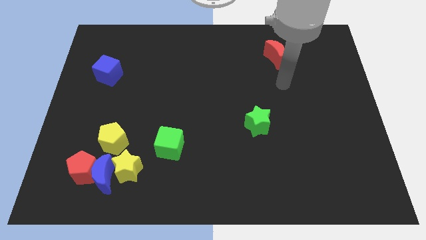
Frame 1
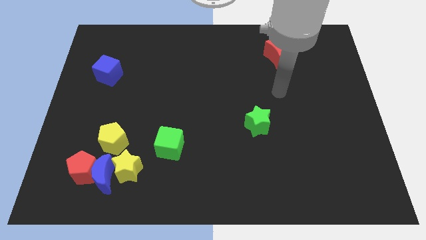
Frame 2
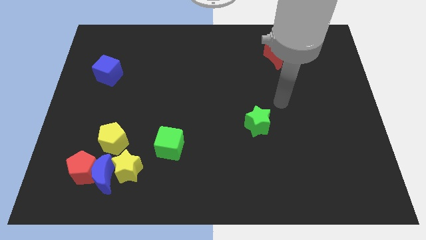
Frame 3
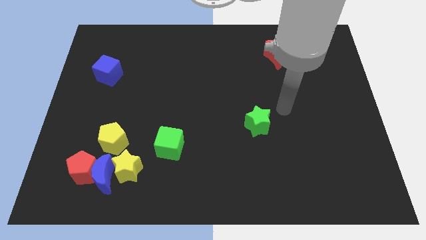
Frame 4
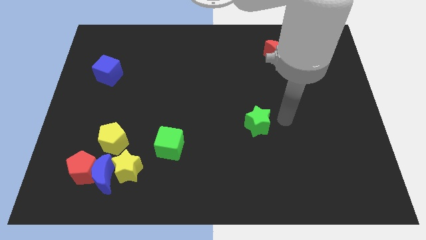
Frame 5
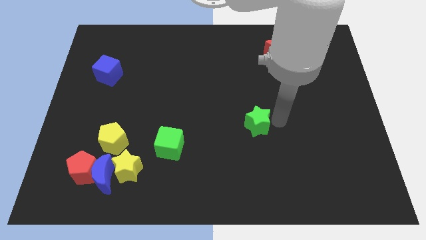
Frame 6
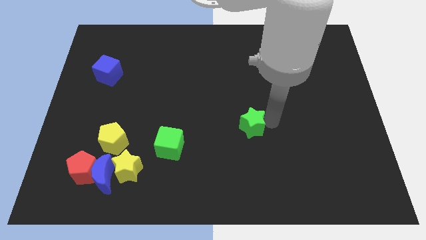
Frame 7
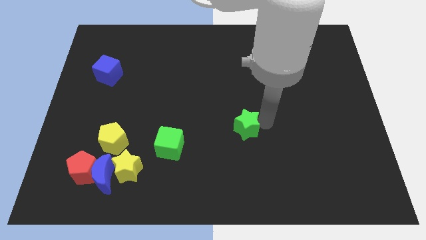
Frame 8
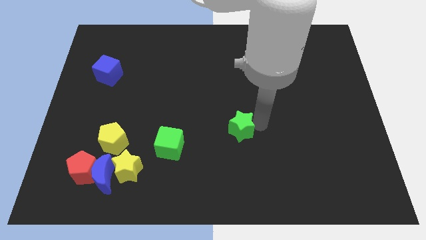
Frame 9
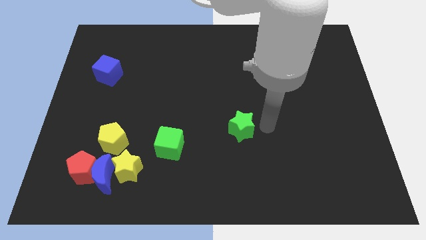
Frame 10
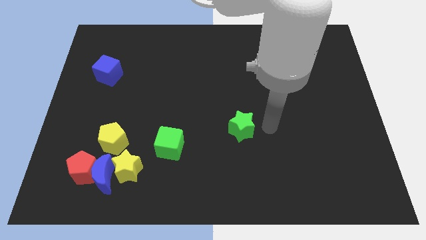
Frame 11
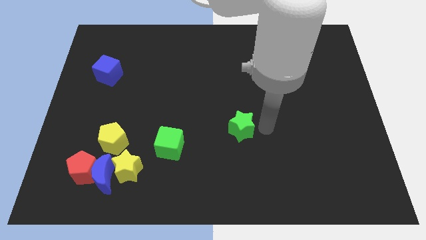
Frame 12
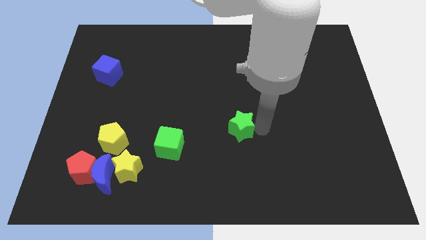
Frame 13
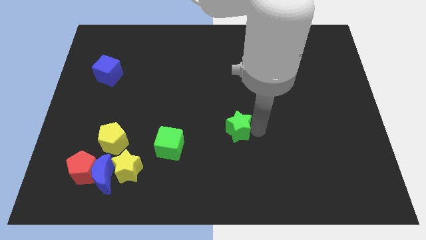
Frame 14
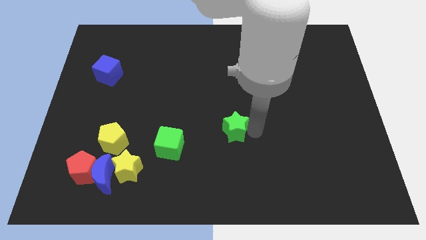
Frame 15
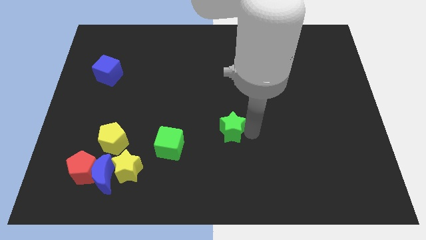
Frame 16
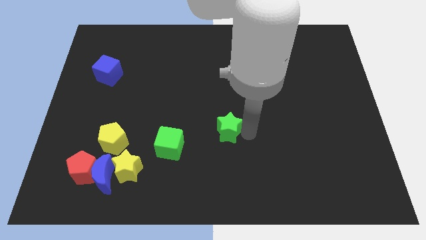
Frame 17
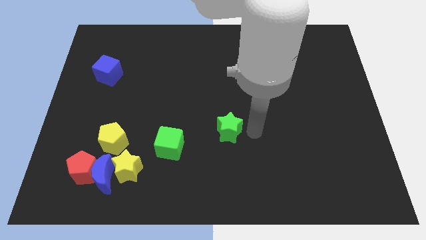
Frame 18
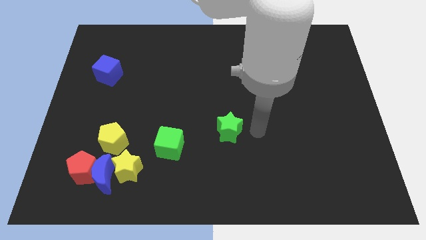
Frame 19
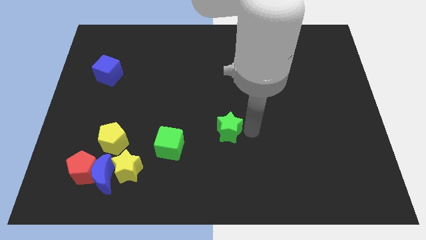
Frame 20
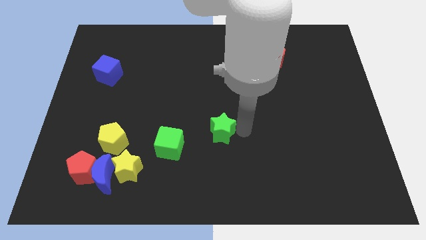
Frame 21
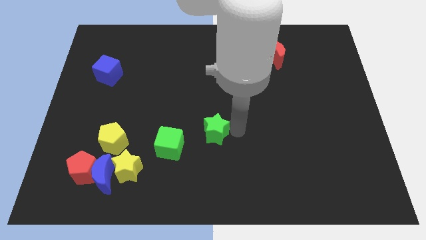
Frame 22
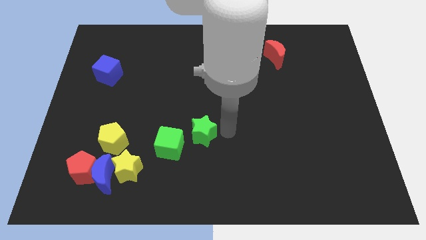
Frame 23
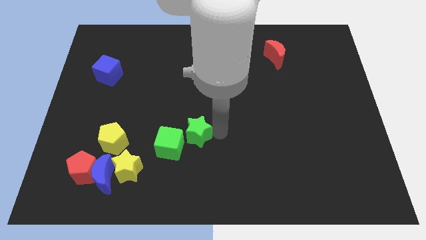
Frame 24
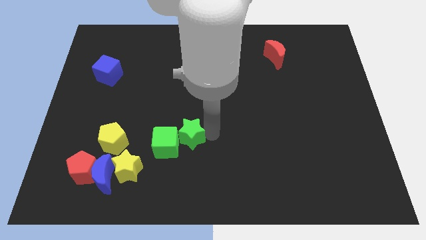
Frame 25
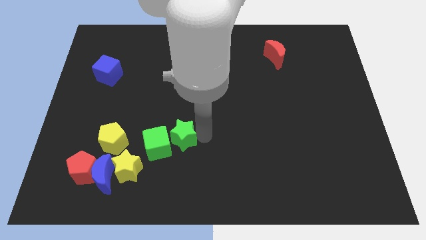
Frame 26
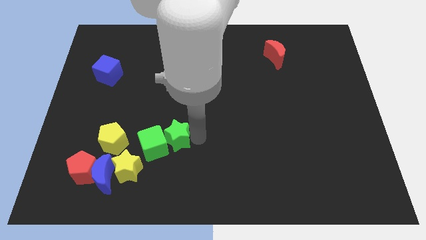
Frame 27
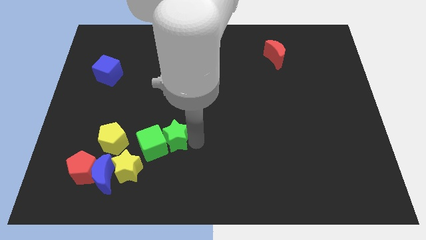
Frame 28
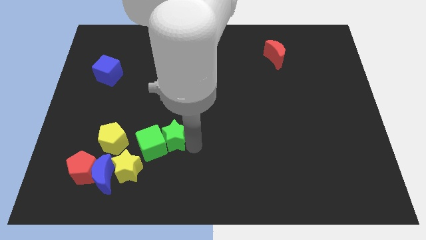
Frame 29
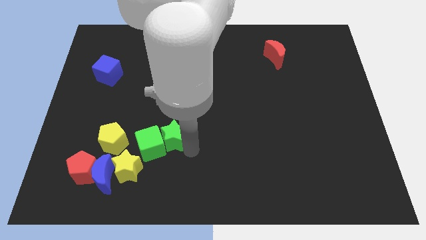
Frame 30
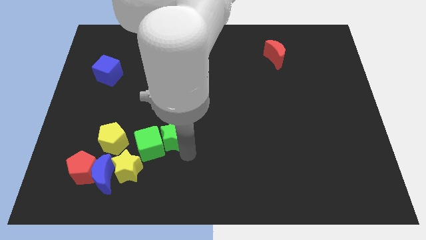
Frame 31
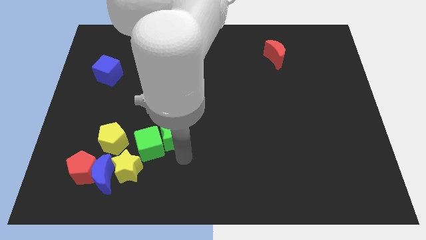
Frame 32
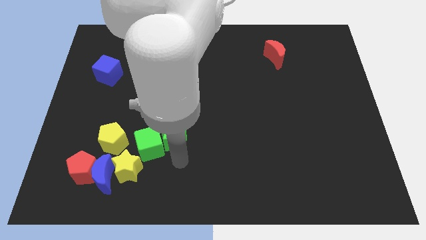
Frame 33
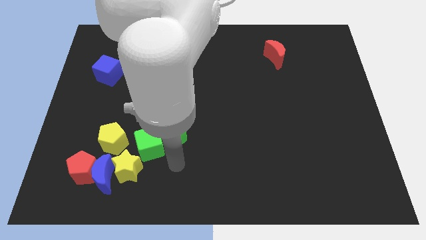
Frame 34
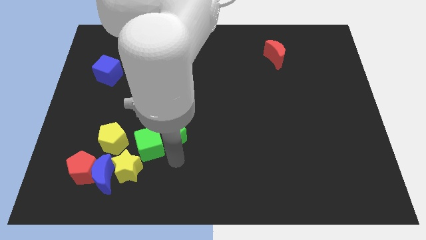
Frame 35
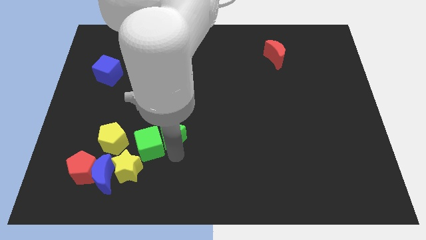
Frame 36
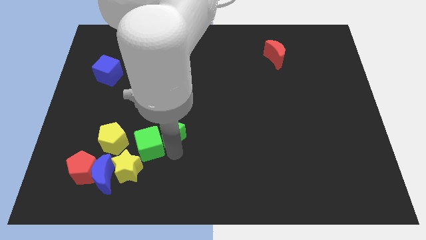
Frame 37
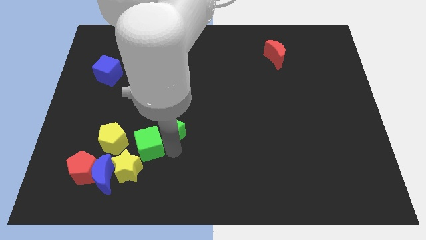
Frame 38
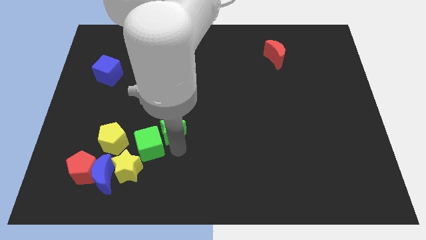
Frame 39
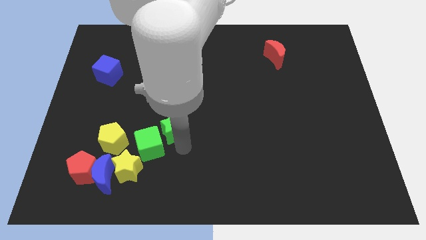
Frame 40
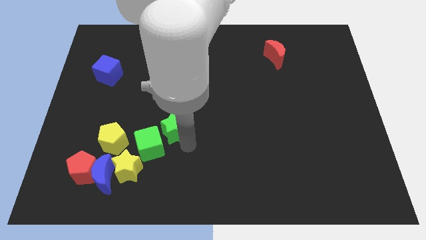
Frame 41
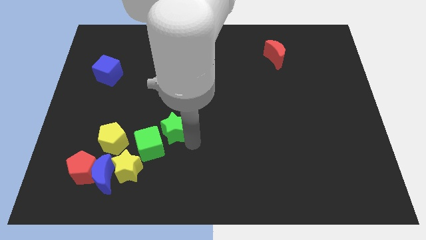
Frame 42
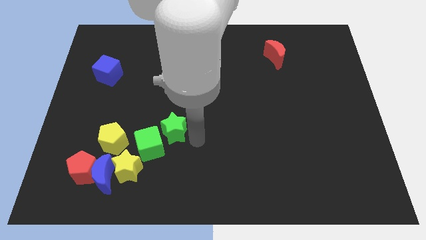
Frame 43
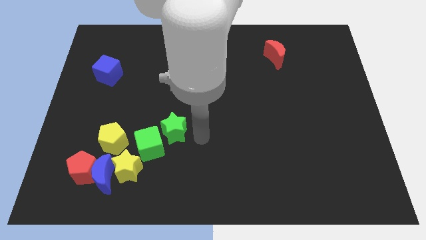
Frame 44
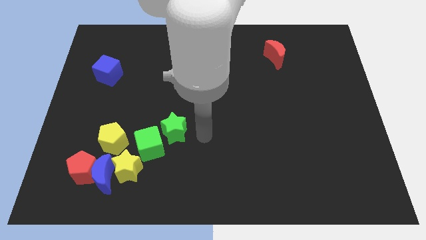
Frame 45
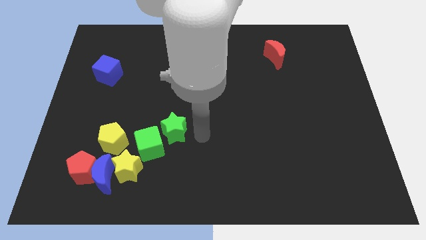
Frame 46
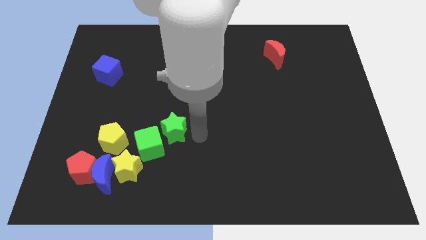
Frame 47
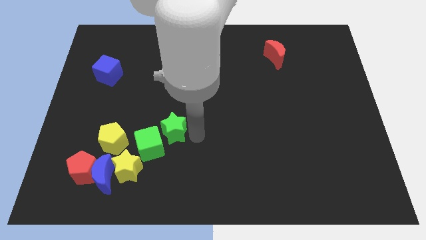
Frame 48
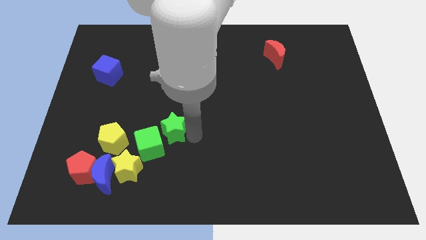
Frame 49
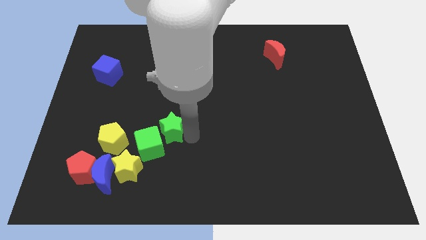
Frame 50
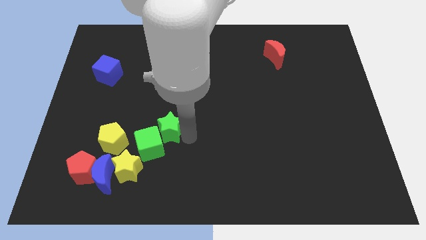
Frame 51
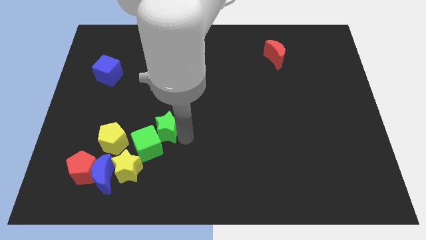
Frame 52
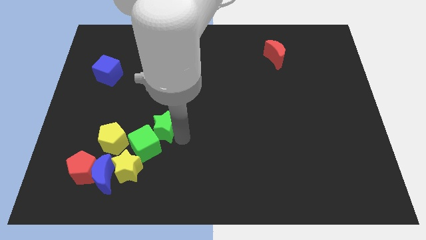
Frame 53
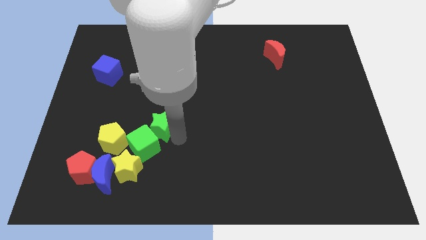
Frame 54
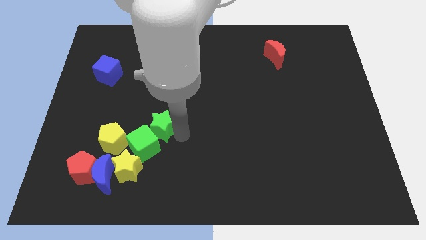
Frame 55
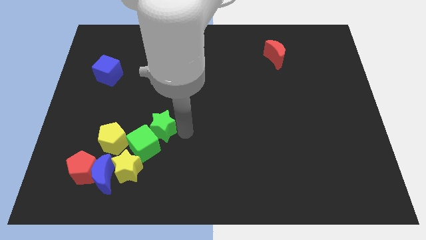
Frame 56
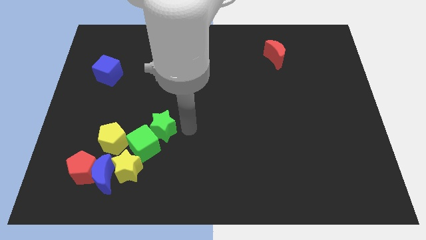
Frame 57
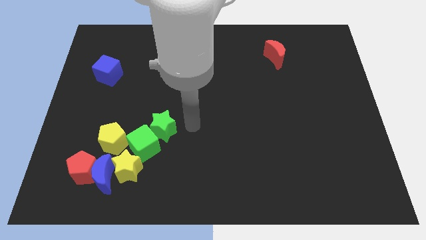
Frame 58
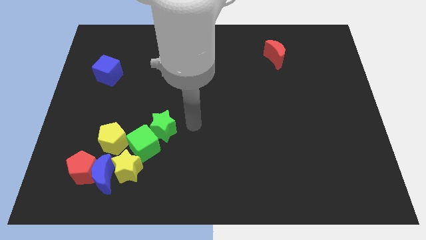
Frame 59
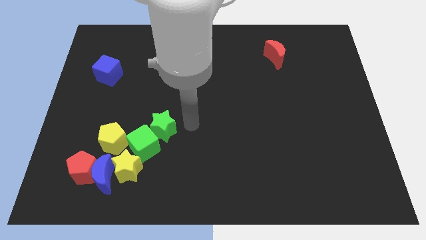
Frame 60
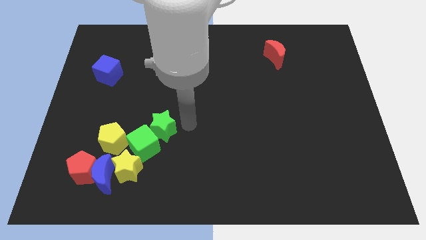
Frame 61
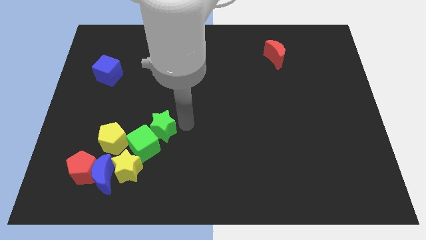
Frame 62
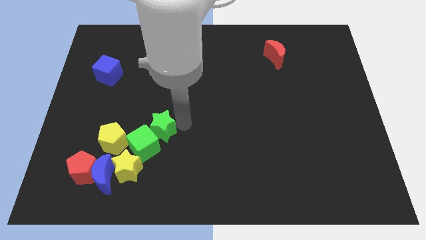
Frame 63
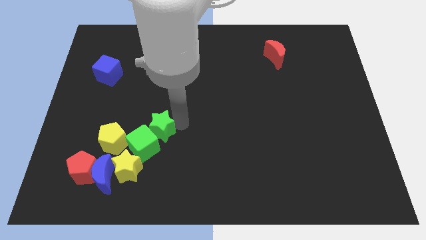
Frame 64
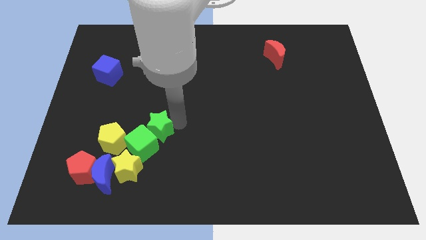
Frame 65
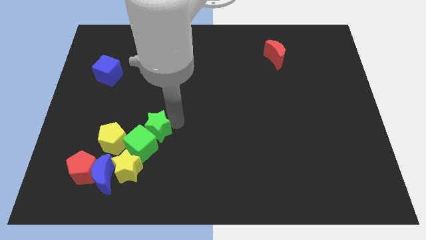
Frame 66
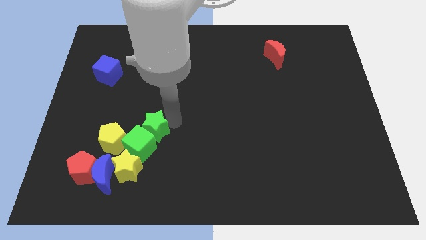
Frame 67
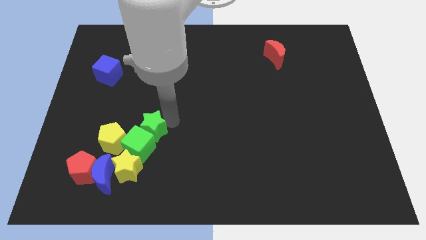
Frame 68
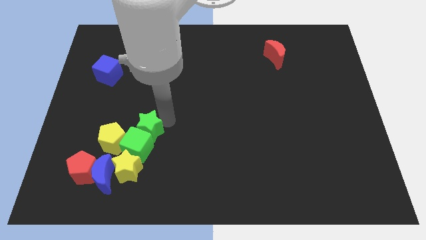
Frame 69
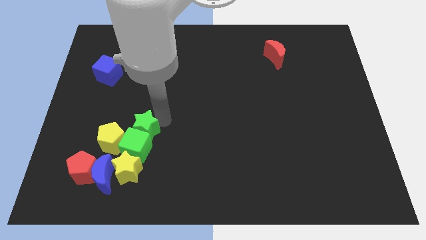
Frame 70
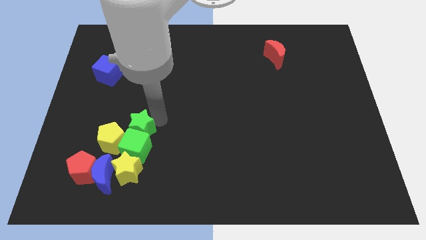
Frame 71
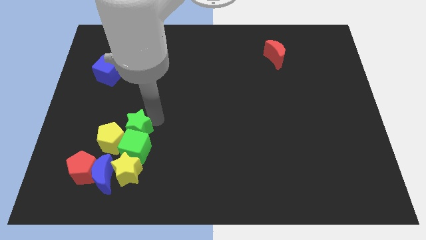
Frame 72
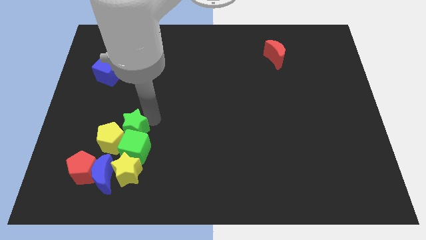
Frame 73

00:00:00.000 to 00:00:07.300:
put the green star to the yellow pentagon
